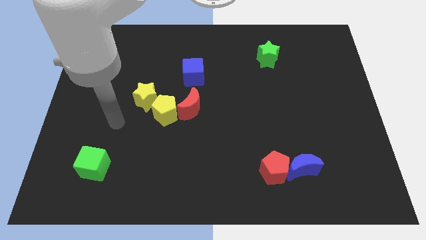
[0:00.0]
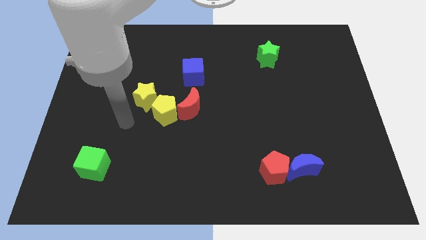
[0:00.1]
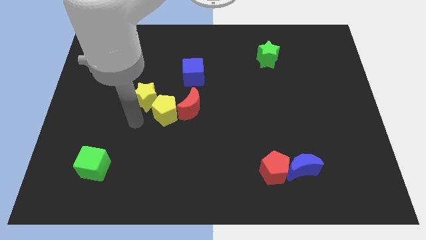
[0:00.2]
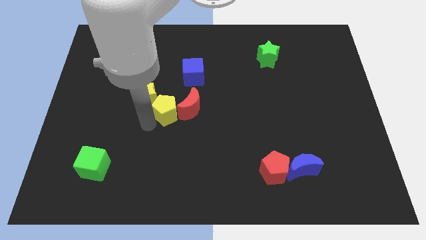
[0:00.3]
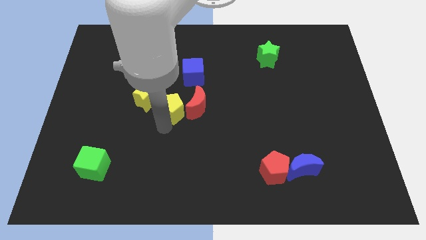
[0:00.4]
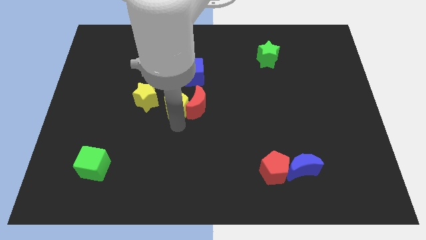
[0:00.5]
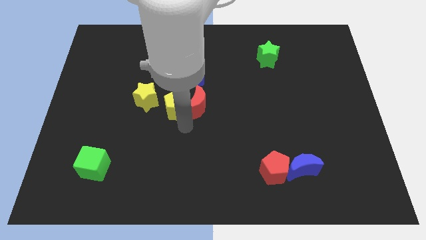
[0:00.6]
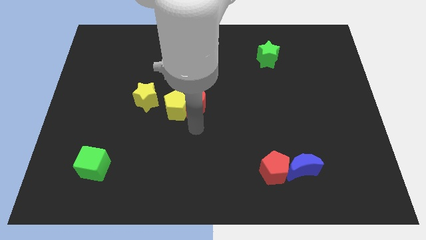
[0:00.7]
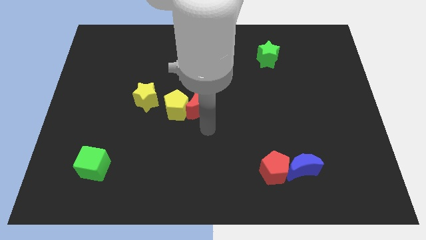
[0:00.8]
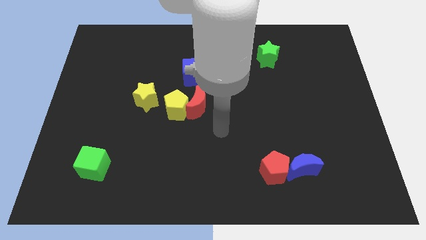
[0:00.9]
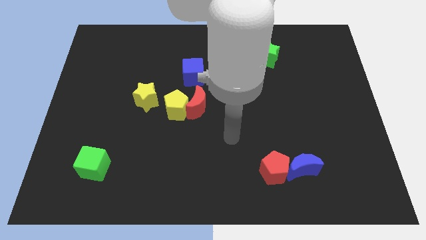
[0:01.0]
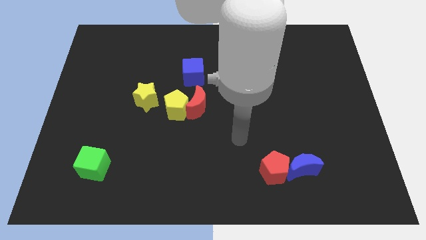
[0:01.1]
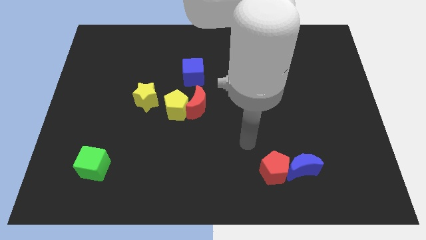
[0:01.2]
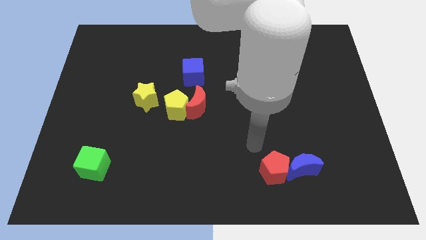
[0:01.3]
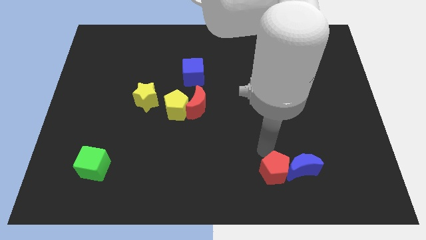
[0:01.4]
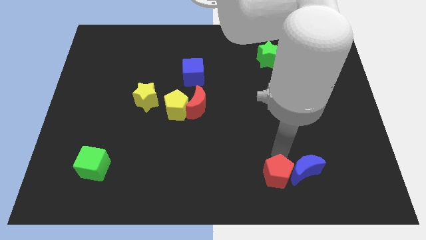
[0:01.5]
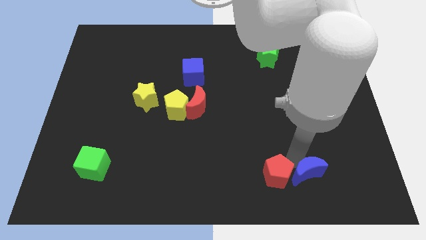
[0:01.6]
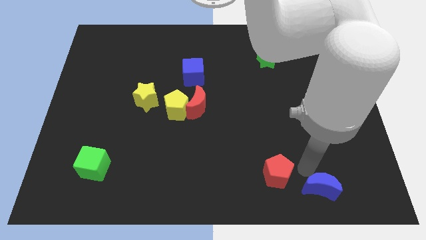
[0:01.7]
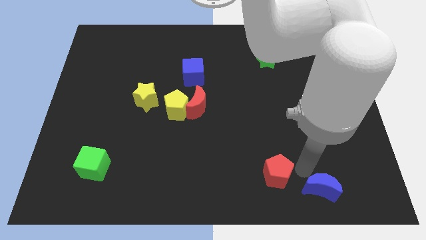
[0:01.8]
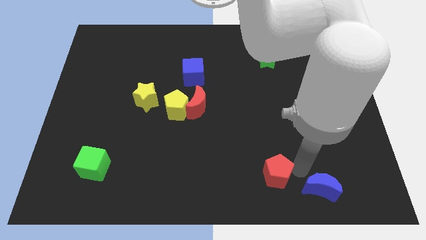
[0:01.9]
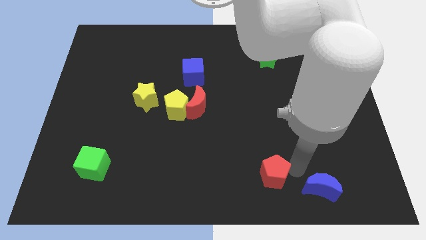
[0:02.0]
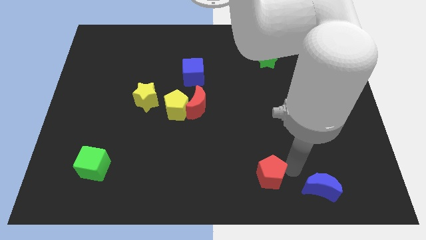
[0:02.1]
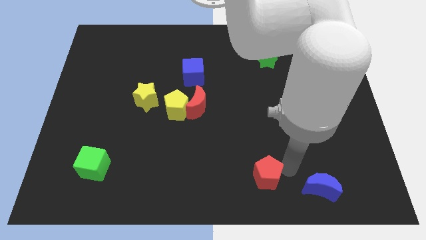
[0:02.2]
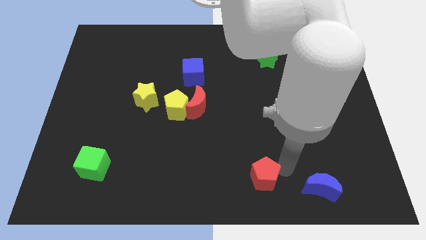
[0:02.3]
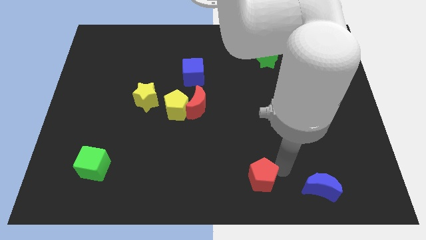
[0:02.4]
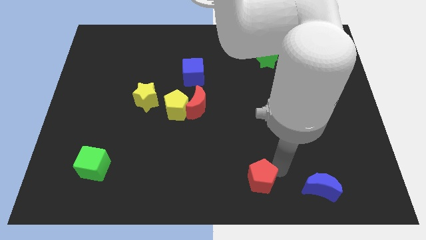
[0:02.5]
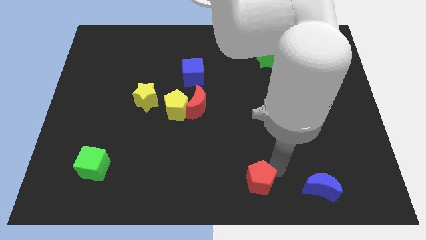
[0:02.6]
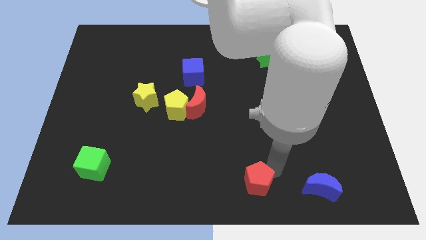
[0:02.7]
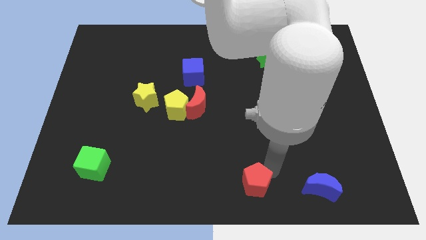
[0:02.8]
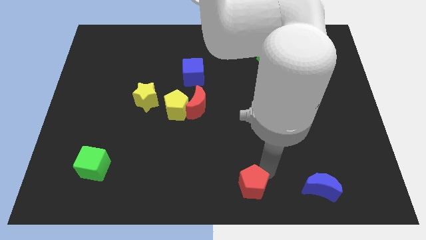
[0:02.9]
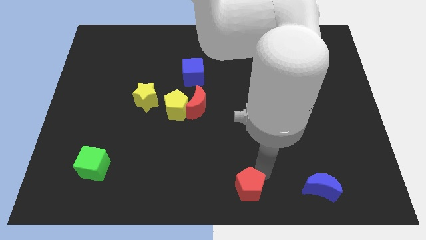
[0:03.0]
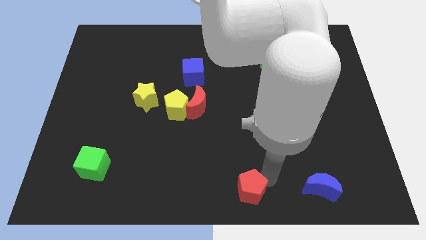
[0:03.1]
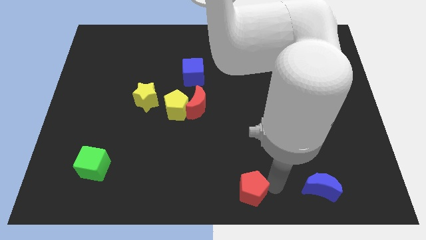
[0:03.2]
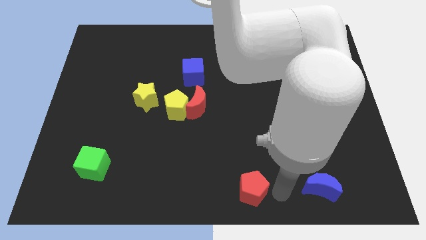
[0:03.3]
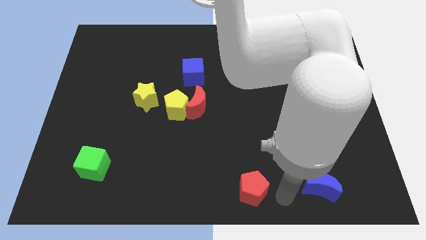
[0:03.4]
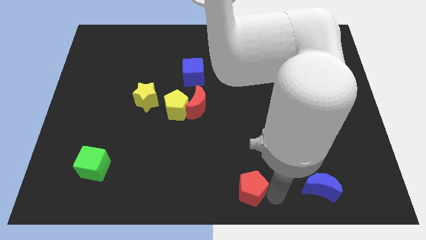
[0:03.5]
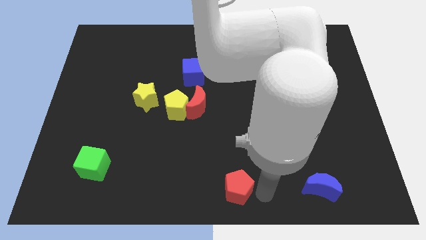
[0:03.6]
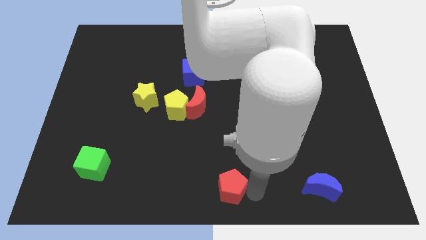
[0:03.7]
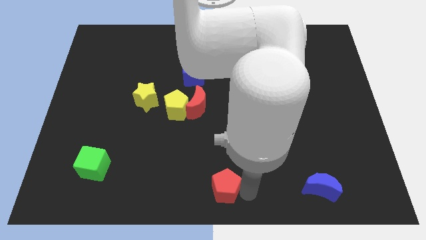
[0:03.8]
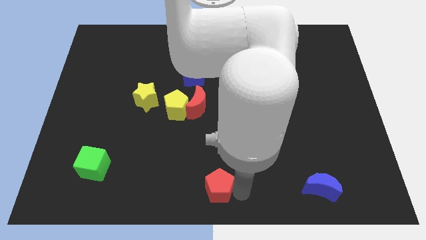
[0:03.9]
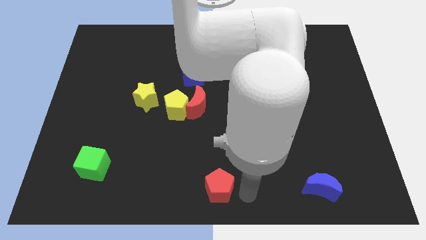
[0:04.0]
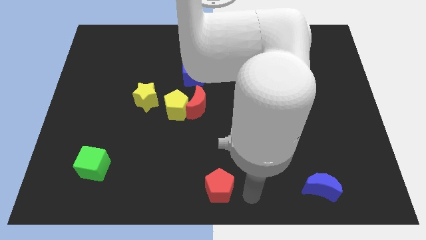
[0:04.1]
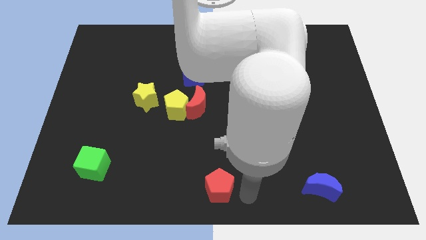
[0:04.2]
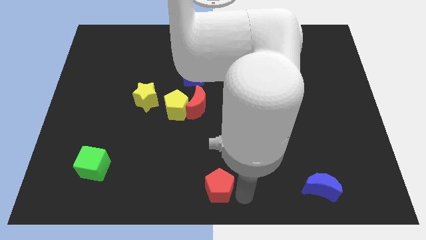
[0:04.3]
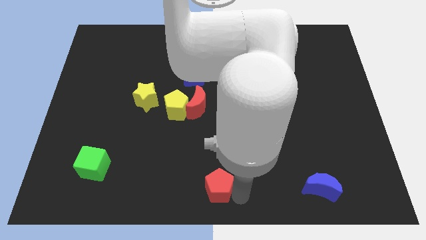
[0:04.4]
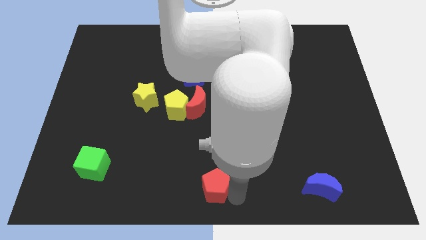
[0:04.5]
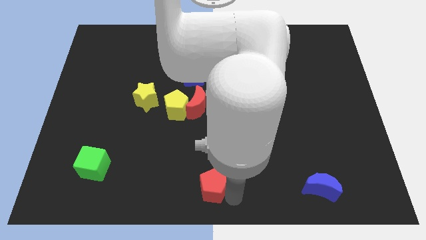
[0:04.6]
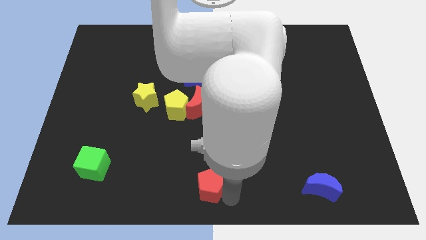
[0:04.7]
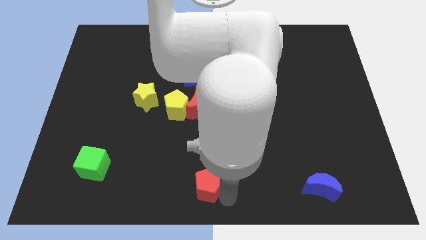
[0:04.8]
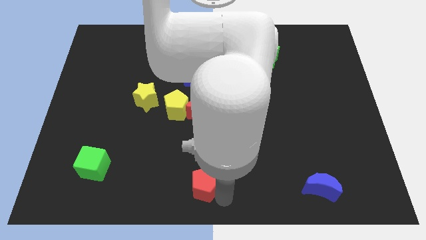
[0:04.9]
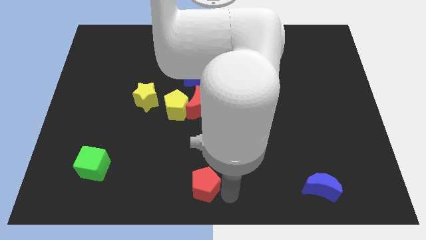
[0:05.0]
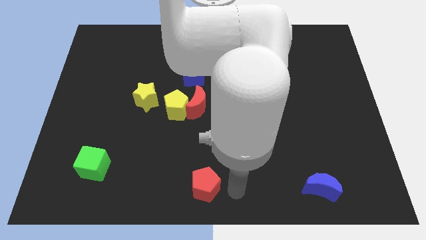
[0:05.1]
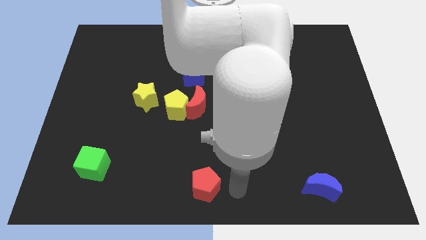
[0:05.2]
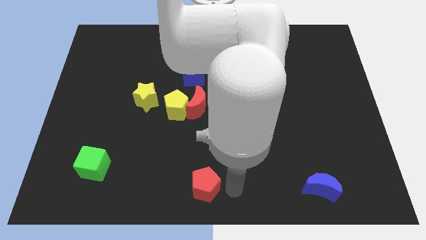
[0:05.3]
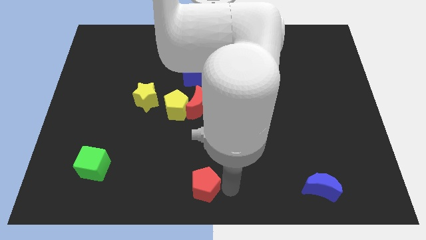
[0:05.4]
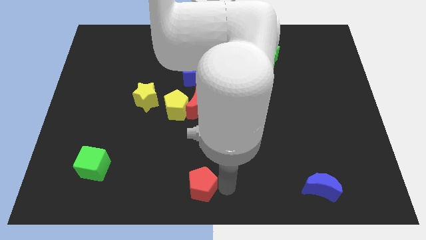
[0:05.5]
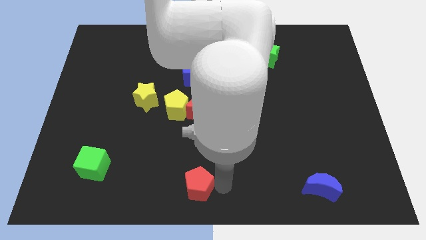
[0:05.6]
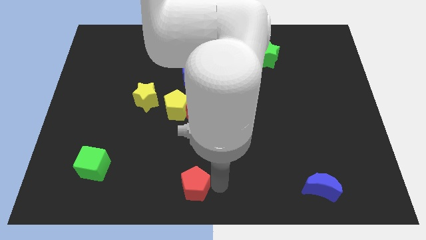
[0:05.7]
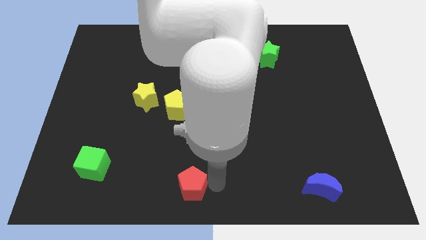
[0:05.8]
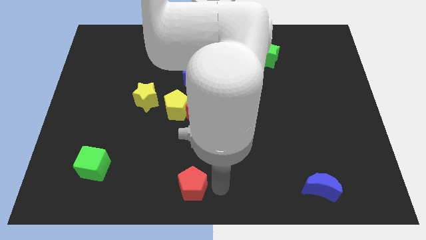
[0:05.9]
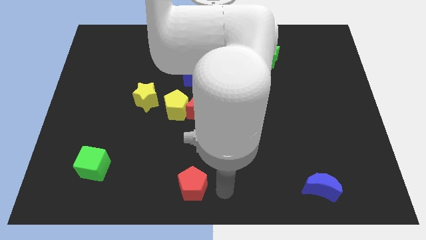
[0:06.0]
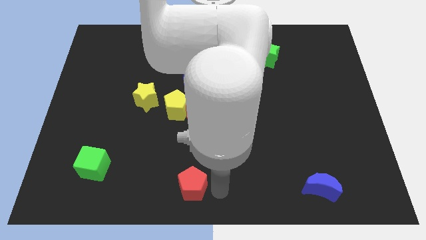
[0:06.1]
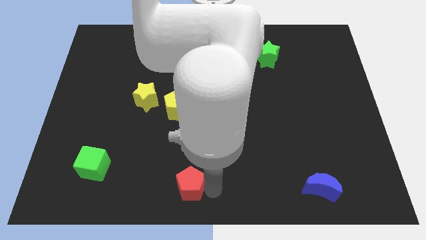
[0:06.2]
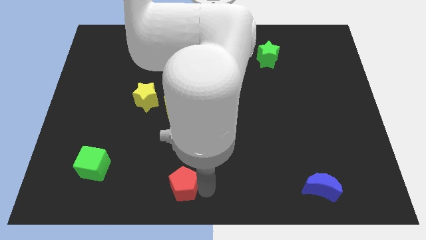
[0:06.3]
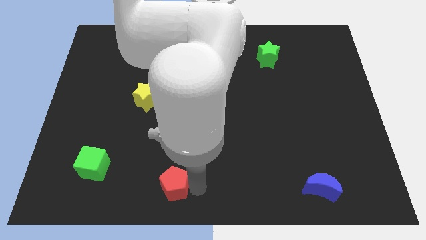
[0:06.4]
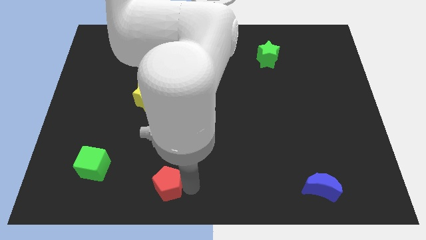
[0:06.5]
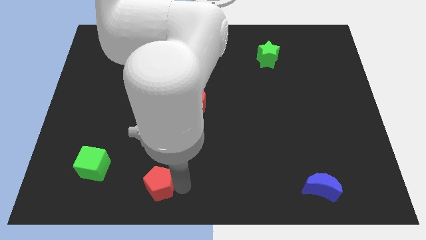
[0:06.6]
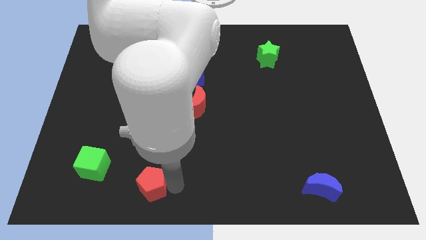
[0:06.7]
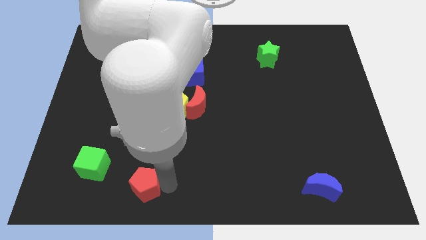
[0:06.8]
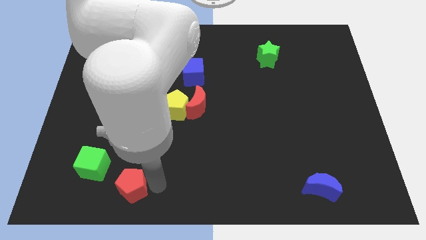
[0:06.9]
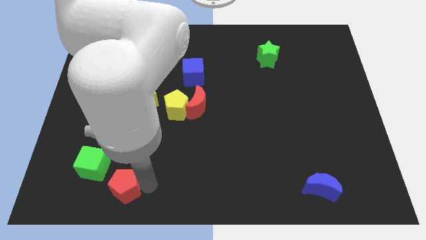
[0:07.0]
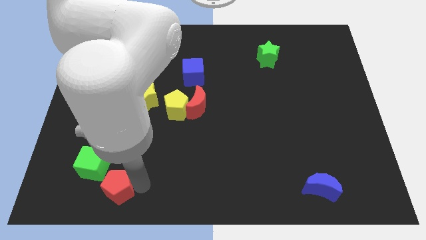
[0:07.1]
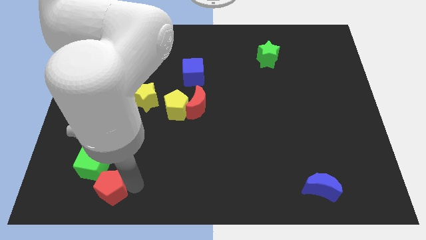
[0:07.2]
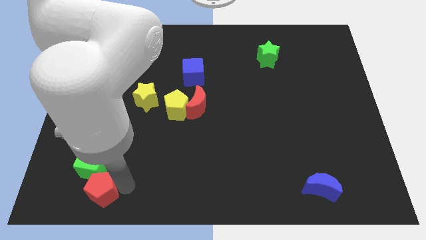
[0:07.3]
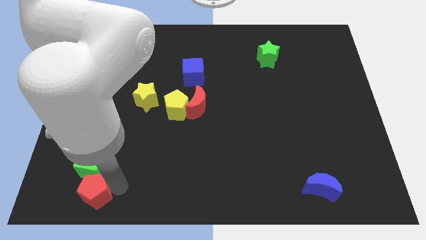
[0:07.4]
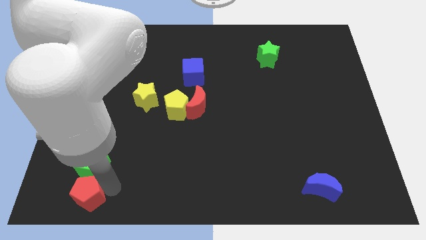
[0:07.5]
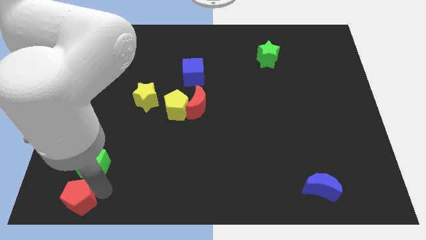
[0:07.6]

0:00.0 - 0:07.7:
move the red pentagon to the bottom left
